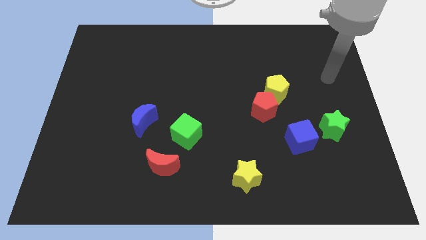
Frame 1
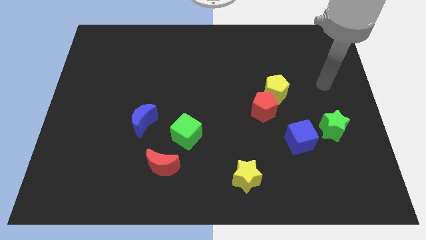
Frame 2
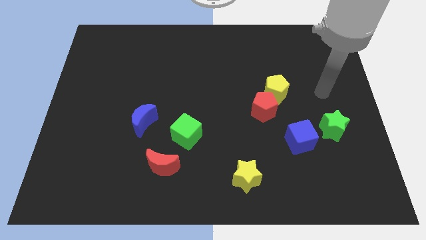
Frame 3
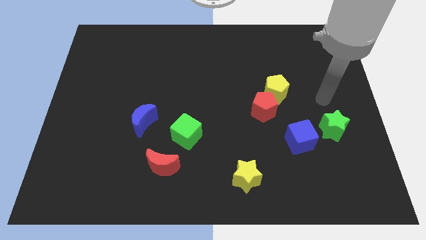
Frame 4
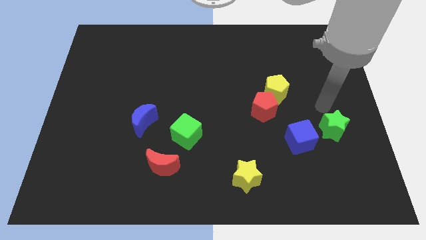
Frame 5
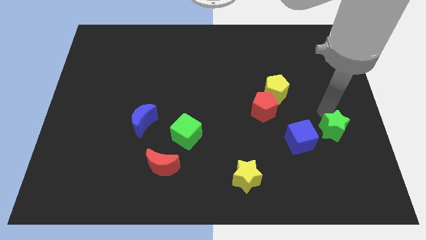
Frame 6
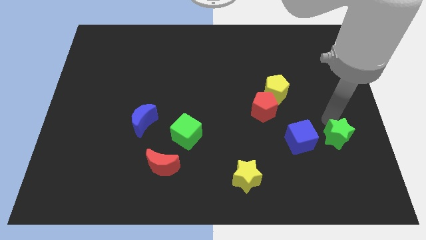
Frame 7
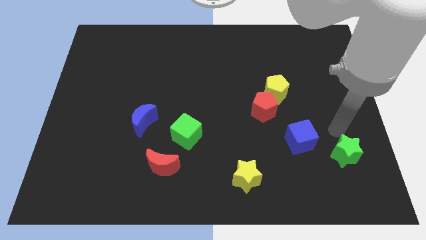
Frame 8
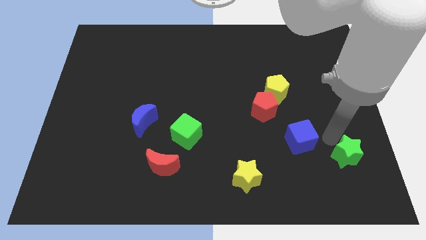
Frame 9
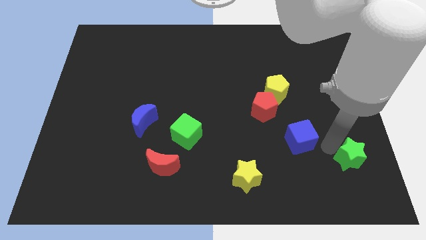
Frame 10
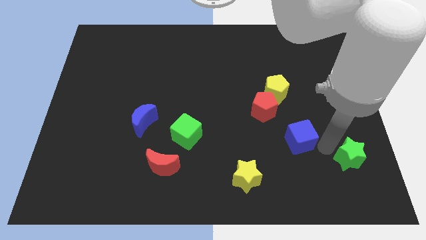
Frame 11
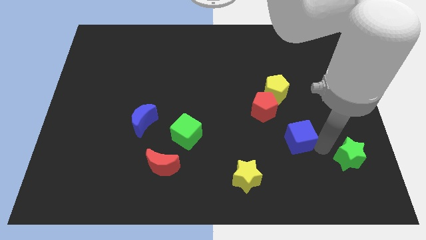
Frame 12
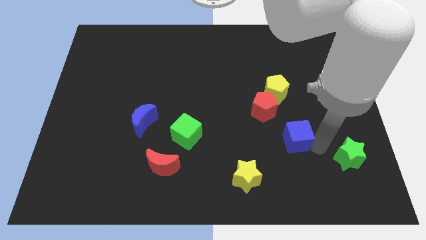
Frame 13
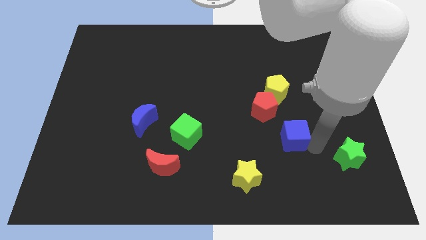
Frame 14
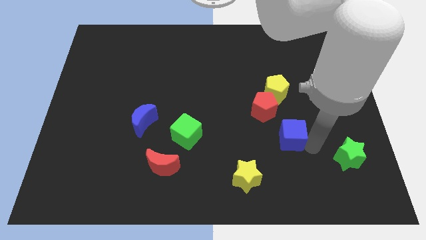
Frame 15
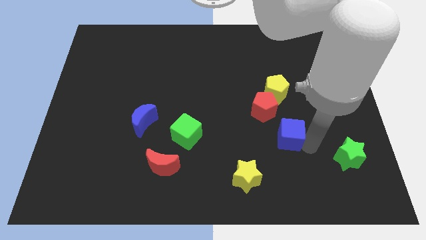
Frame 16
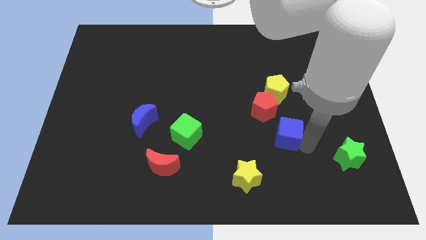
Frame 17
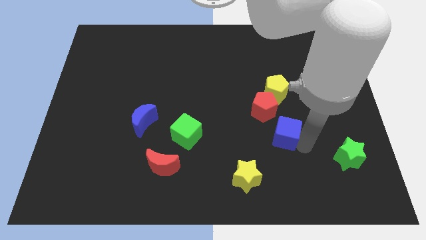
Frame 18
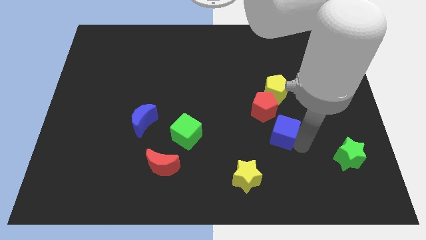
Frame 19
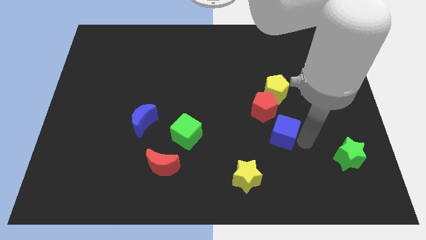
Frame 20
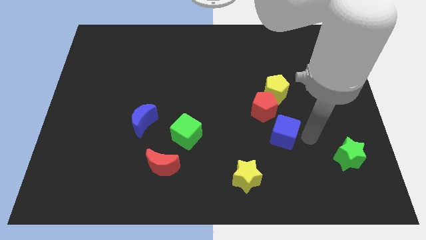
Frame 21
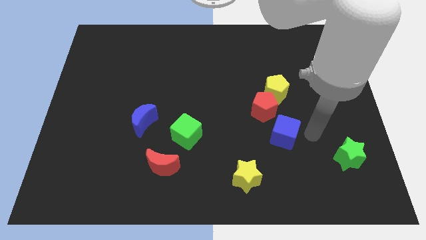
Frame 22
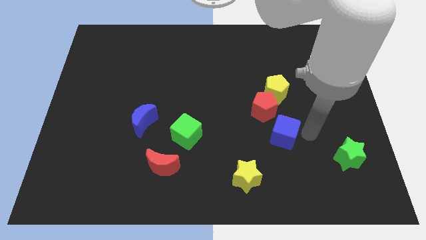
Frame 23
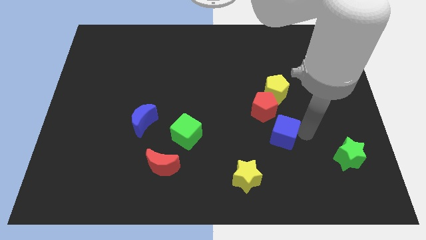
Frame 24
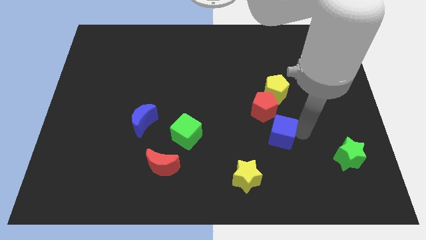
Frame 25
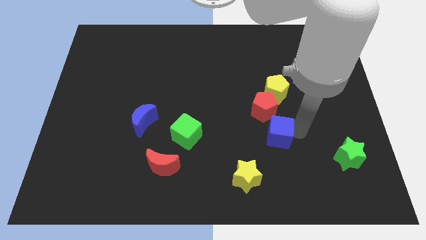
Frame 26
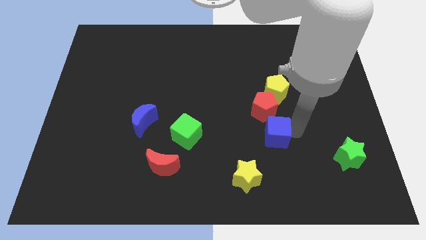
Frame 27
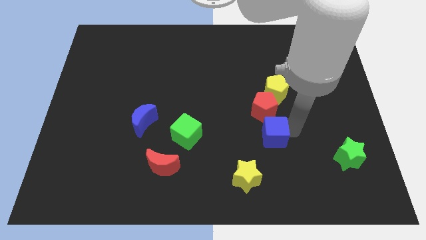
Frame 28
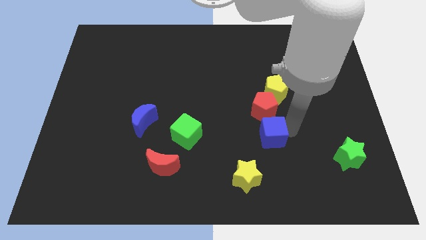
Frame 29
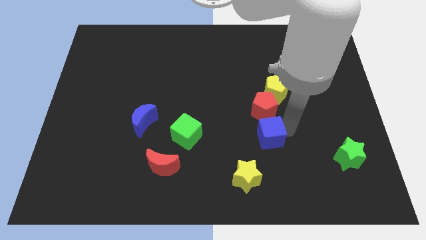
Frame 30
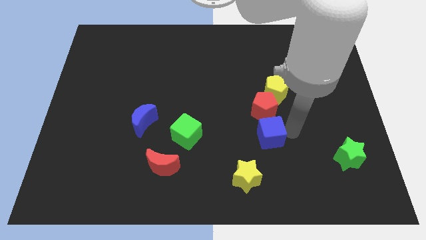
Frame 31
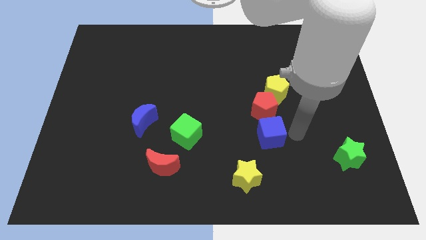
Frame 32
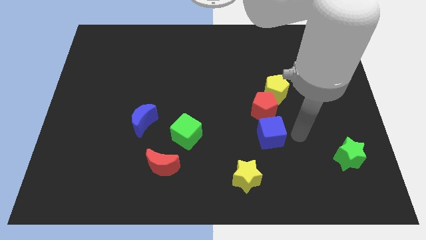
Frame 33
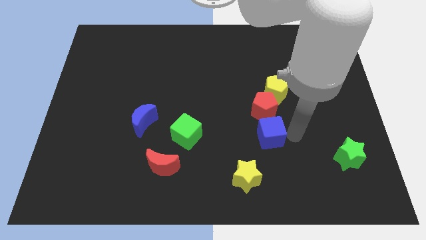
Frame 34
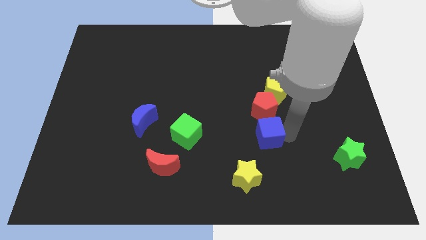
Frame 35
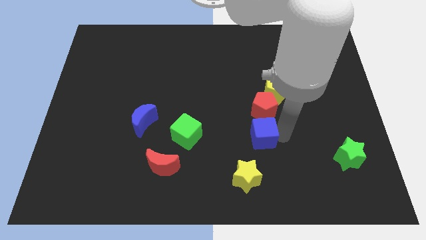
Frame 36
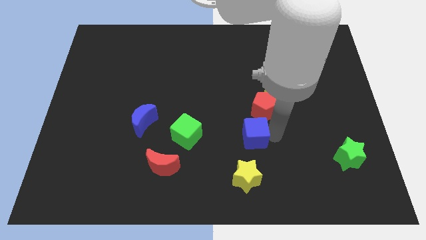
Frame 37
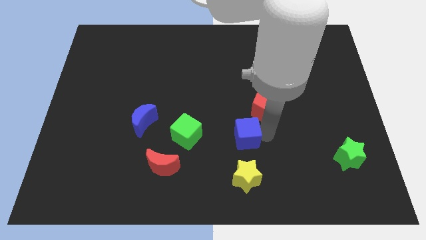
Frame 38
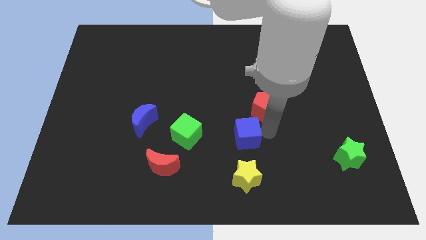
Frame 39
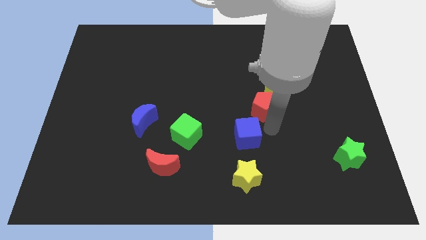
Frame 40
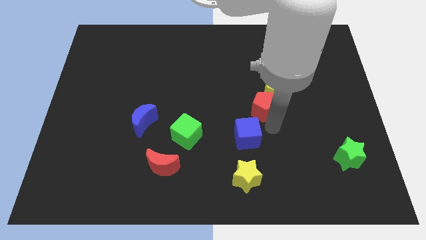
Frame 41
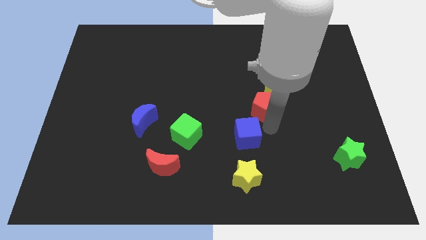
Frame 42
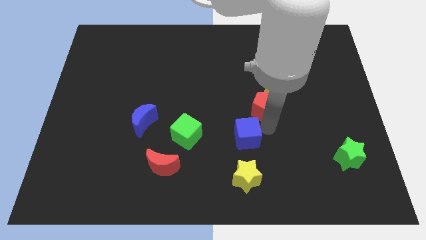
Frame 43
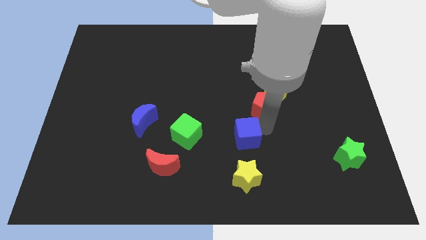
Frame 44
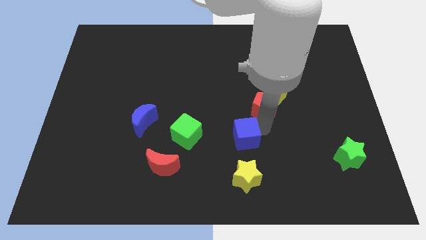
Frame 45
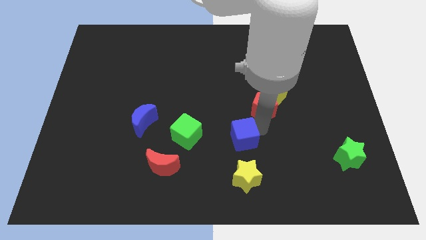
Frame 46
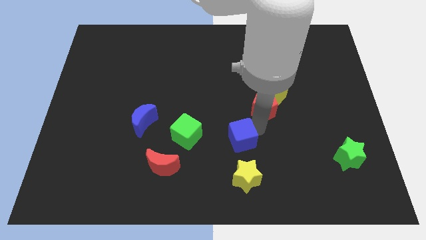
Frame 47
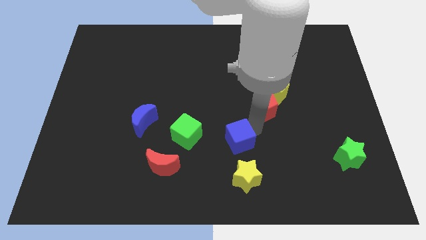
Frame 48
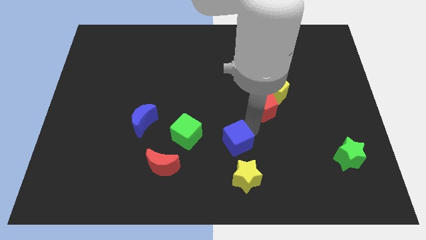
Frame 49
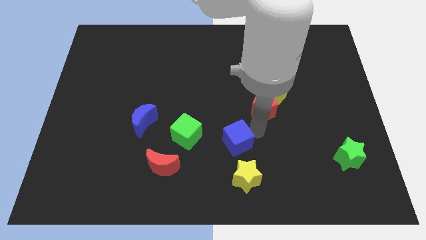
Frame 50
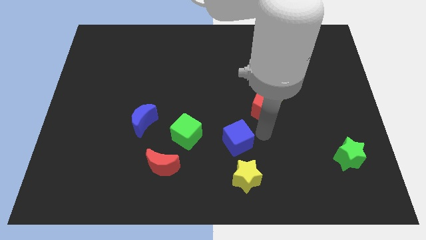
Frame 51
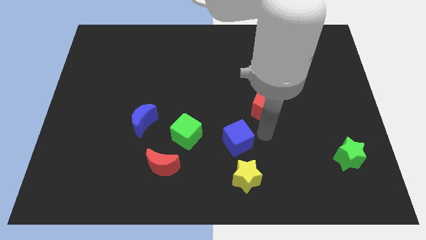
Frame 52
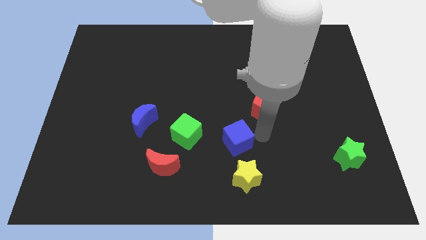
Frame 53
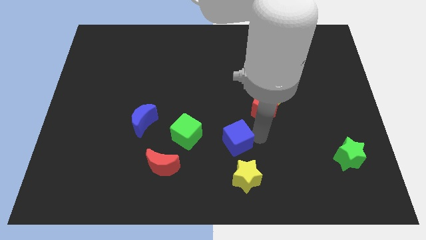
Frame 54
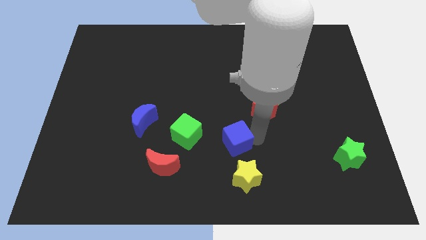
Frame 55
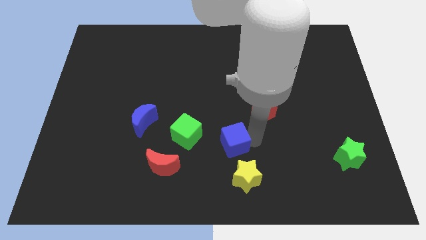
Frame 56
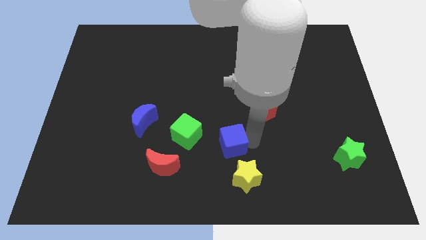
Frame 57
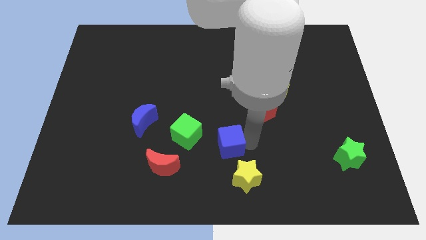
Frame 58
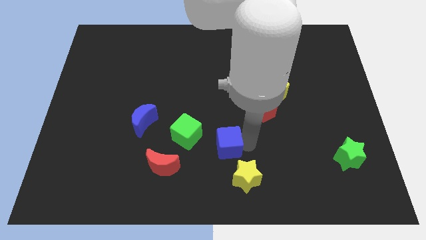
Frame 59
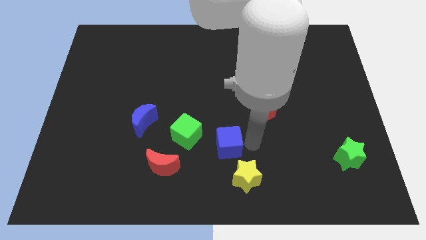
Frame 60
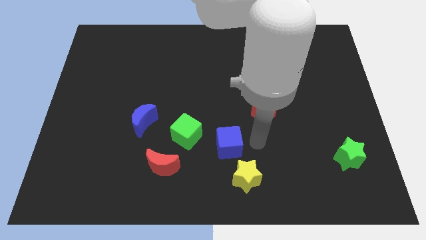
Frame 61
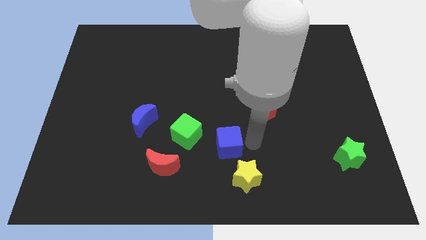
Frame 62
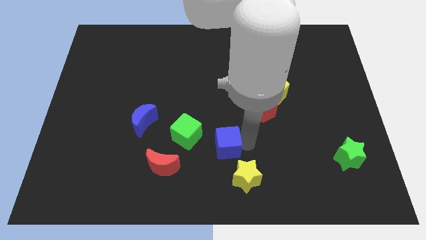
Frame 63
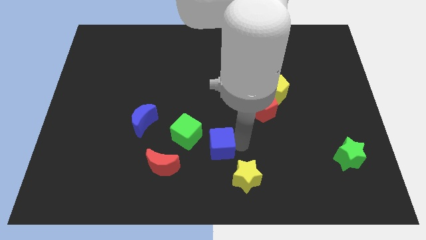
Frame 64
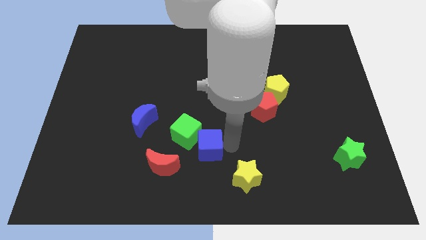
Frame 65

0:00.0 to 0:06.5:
push the blue cube to the left

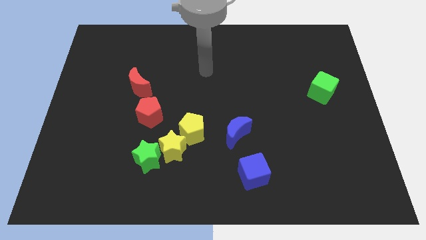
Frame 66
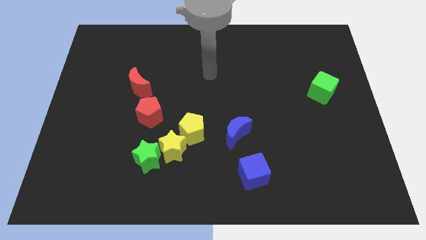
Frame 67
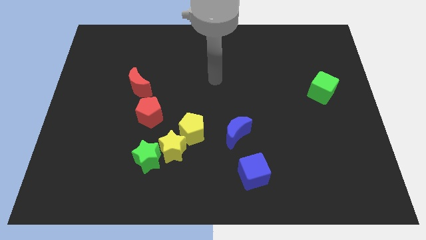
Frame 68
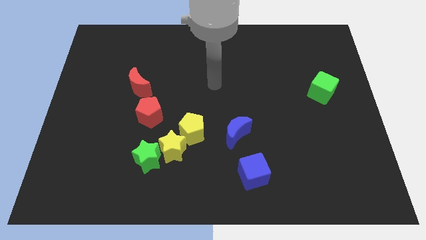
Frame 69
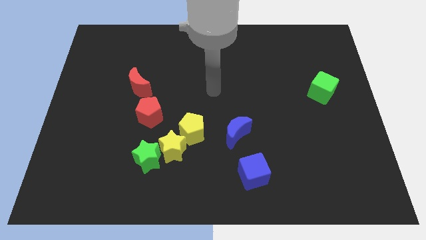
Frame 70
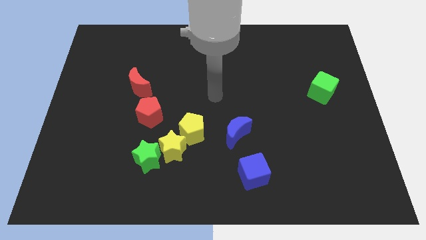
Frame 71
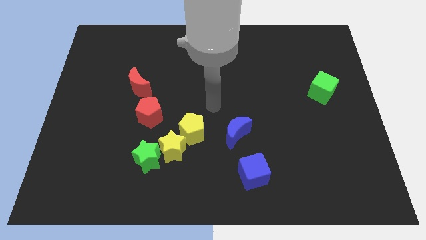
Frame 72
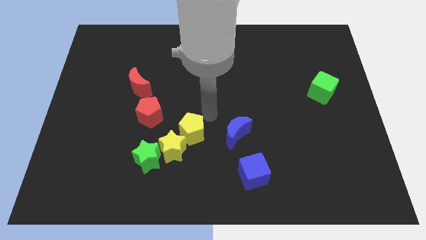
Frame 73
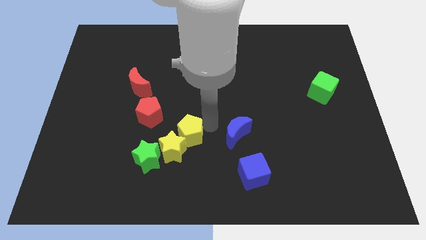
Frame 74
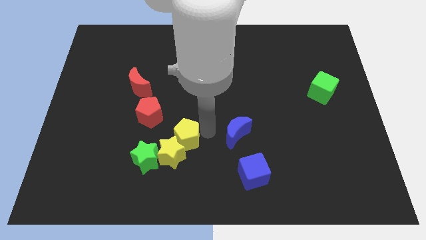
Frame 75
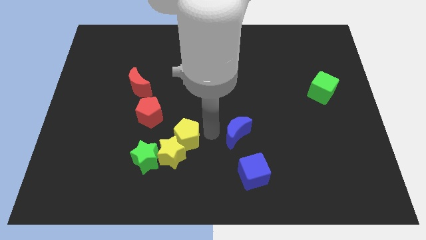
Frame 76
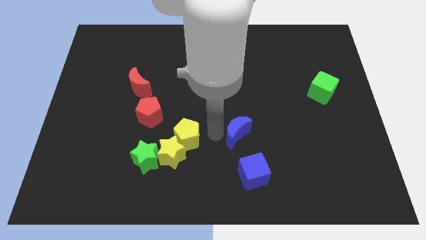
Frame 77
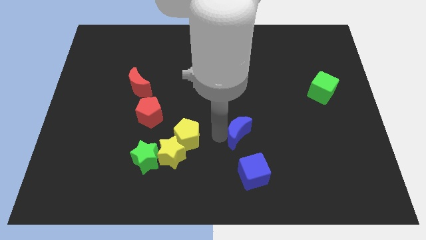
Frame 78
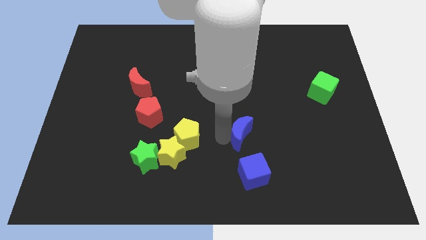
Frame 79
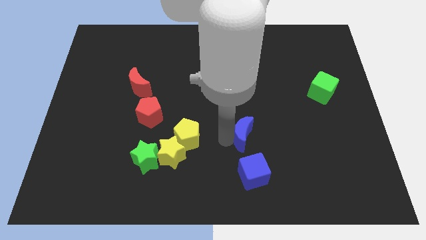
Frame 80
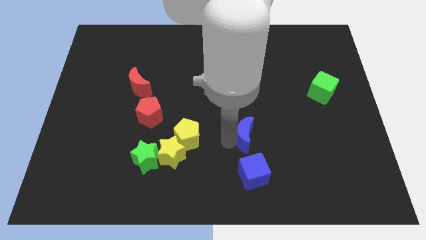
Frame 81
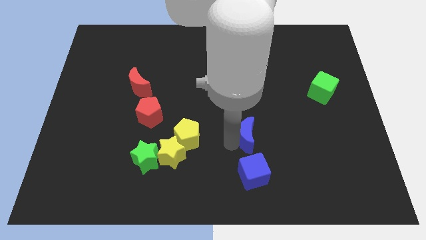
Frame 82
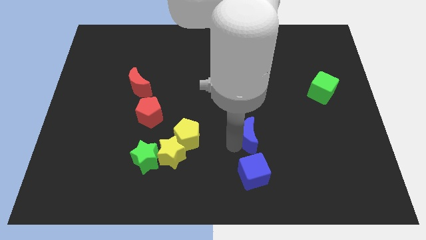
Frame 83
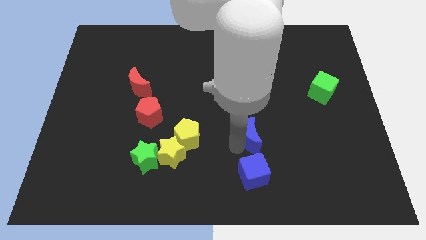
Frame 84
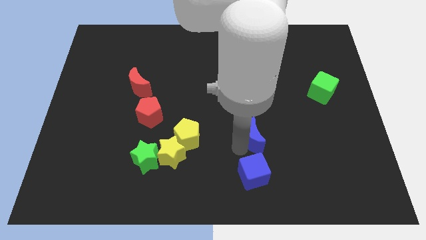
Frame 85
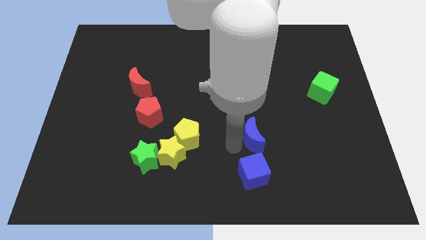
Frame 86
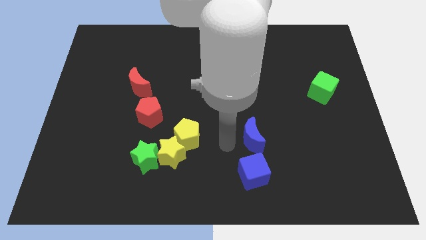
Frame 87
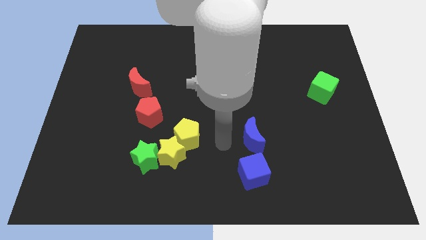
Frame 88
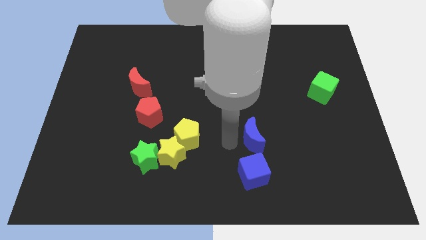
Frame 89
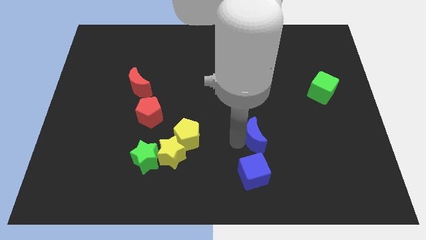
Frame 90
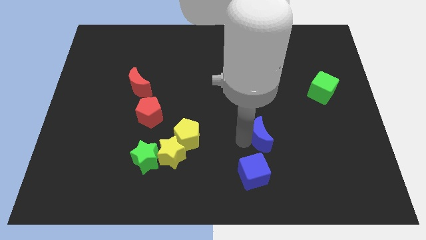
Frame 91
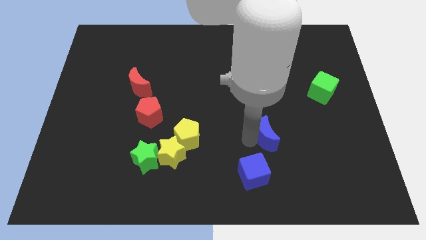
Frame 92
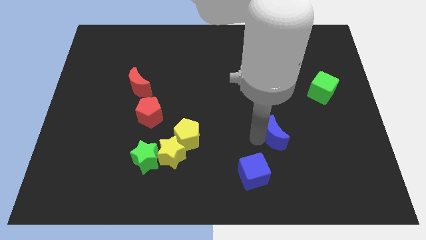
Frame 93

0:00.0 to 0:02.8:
push the blue moon a bit right
